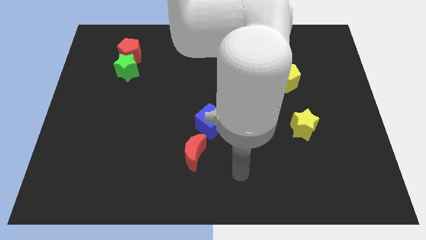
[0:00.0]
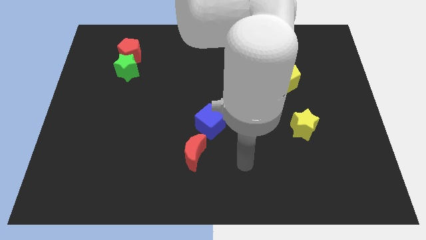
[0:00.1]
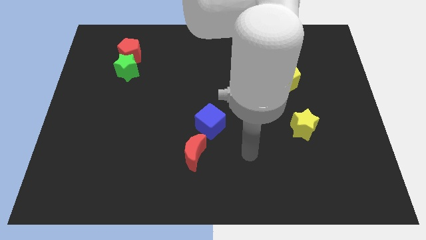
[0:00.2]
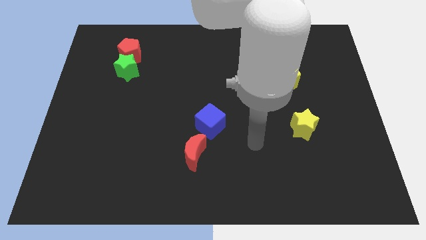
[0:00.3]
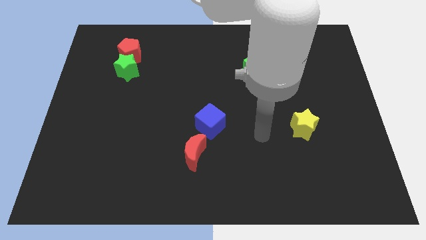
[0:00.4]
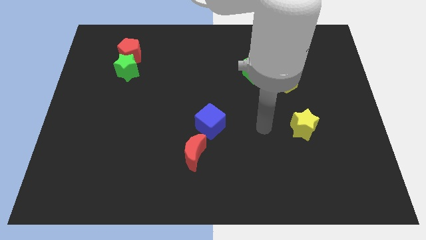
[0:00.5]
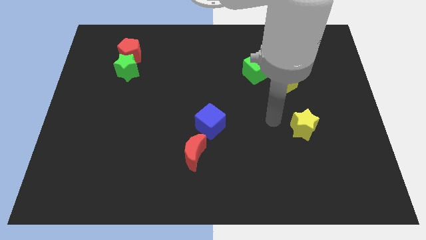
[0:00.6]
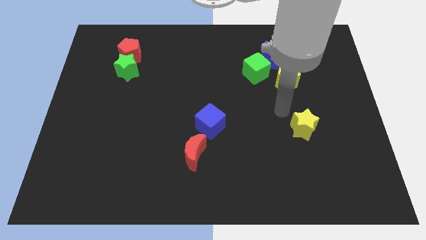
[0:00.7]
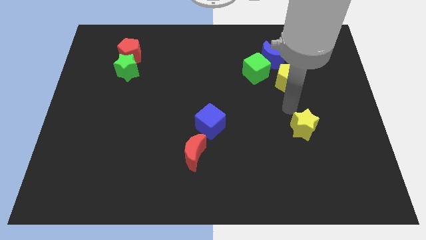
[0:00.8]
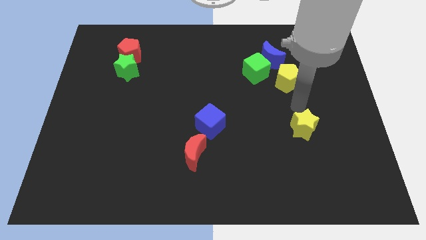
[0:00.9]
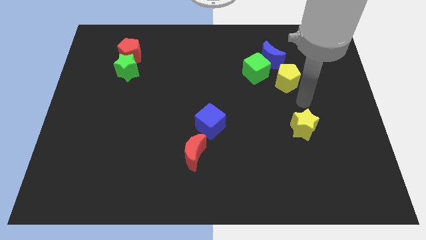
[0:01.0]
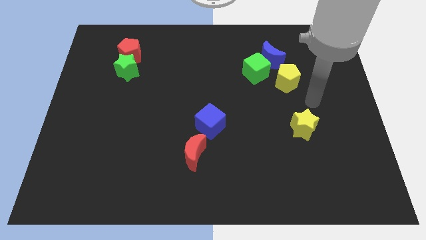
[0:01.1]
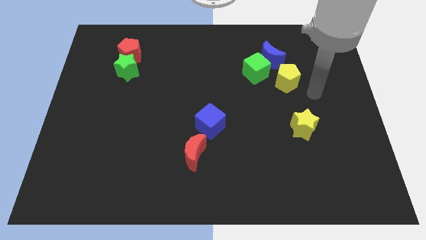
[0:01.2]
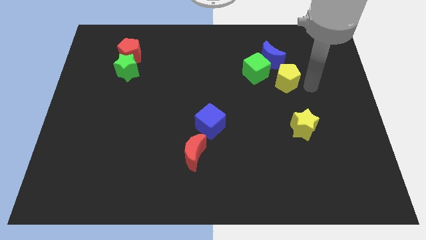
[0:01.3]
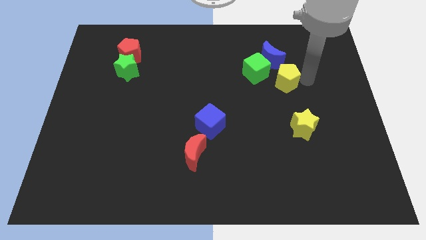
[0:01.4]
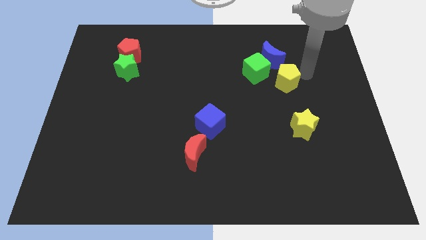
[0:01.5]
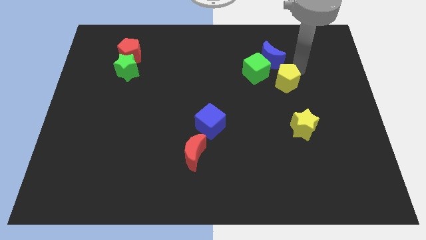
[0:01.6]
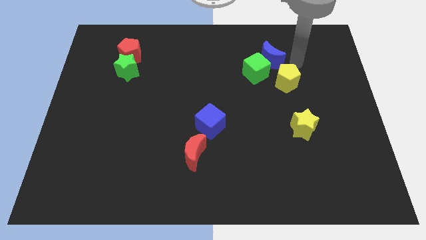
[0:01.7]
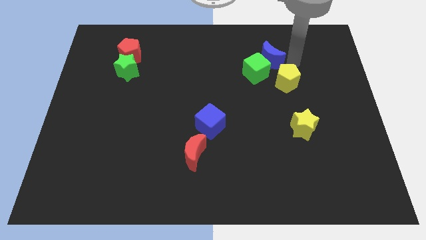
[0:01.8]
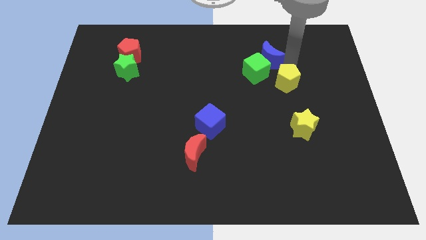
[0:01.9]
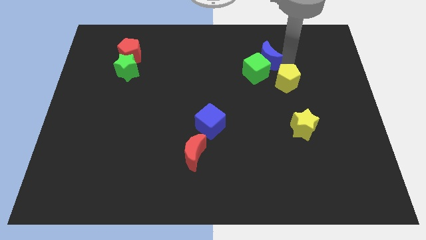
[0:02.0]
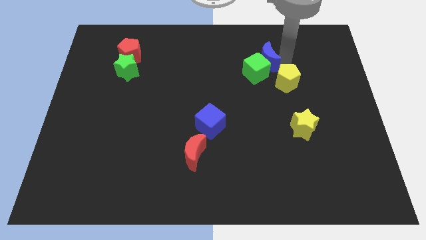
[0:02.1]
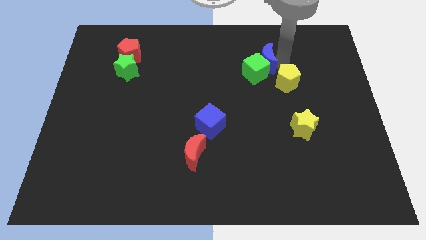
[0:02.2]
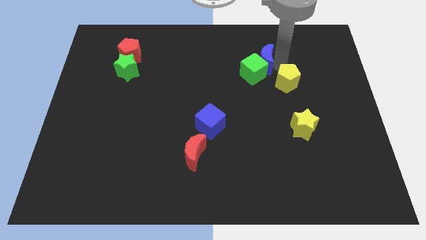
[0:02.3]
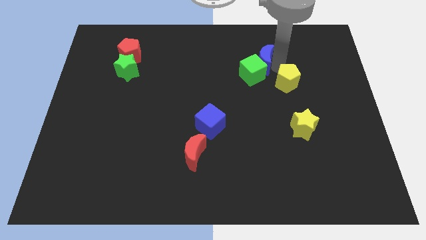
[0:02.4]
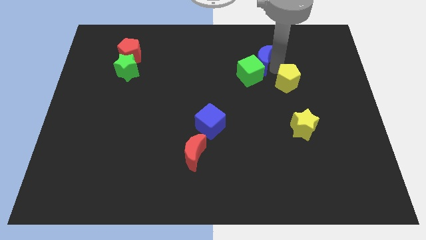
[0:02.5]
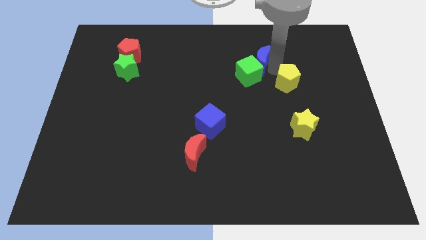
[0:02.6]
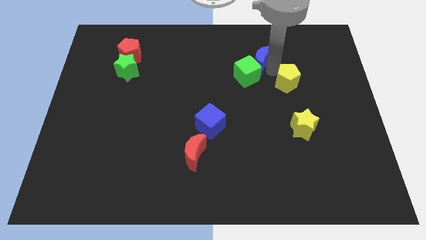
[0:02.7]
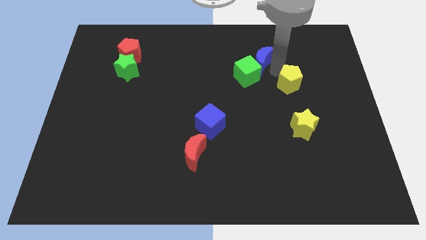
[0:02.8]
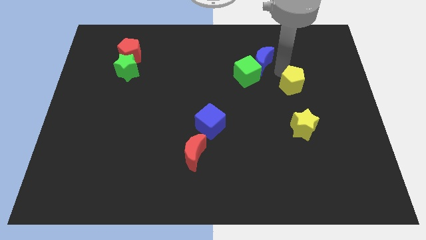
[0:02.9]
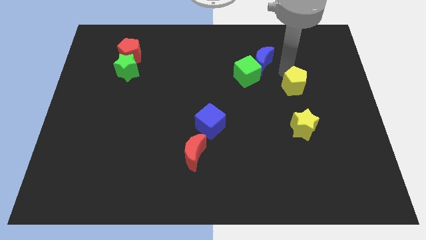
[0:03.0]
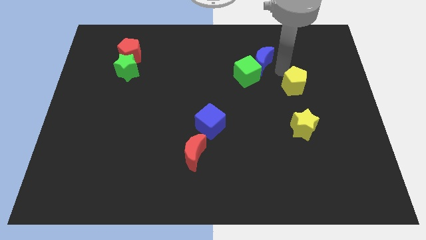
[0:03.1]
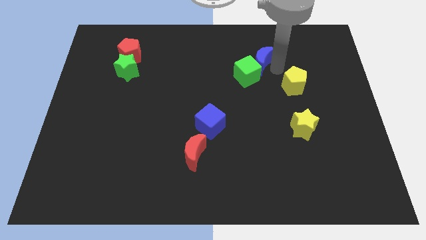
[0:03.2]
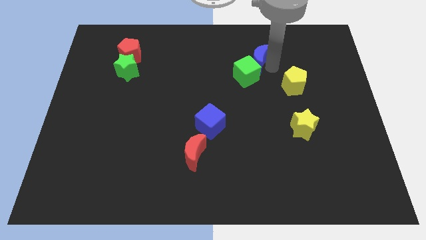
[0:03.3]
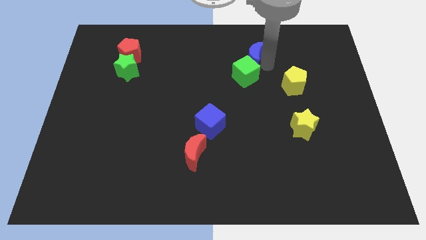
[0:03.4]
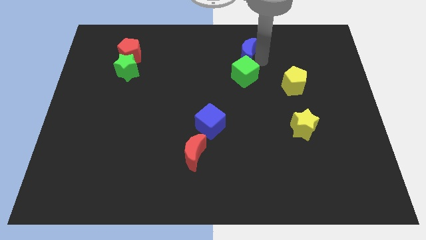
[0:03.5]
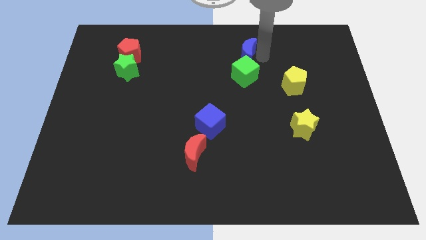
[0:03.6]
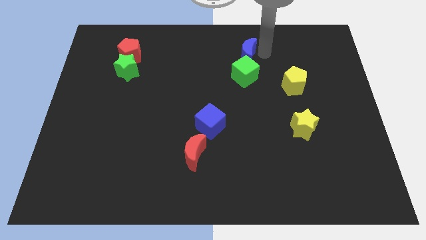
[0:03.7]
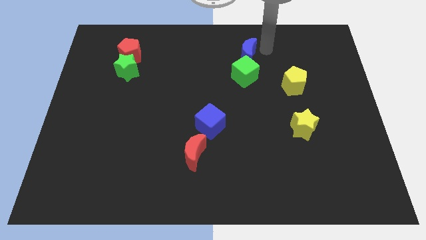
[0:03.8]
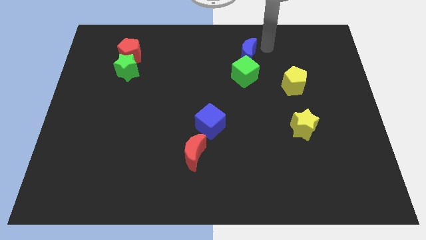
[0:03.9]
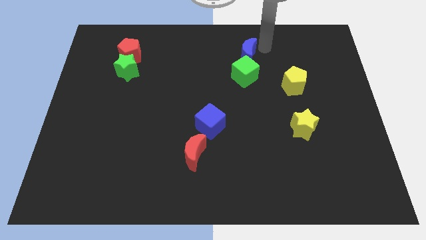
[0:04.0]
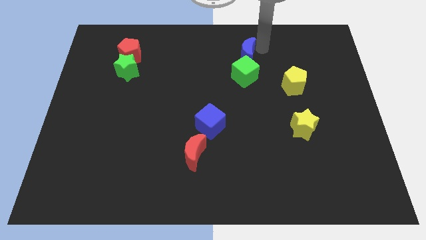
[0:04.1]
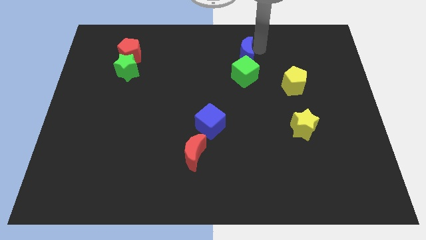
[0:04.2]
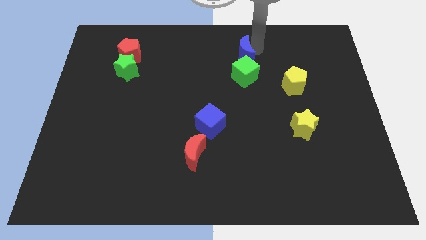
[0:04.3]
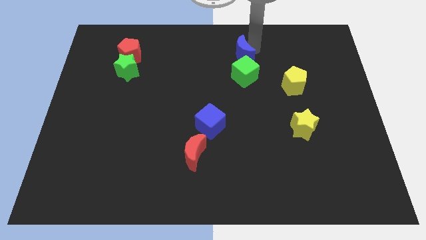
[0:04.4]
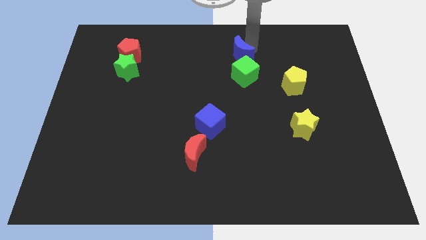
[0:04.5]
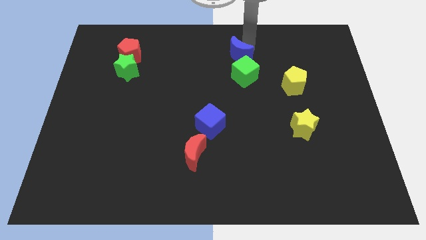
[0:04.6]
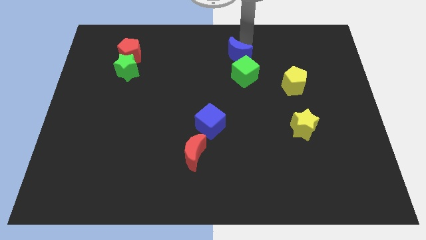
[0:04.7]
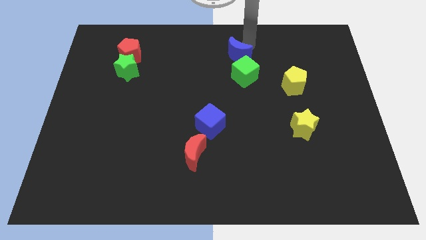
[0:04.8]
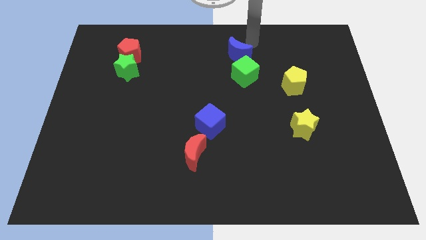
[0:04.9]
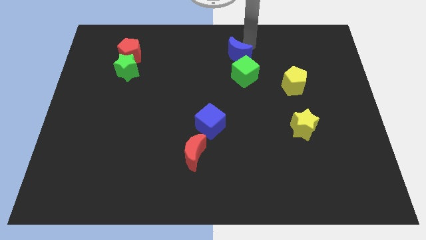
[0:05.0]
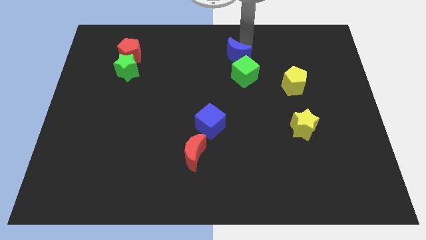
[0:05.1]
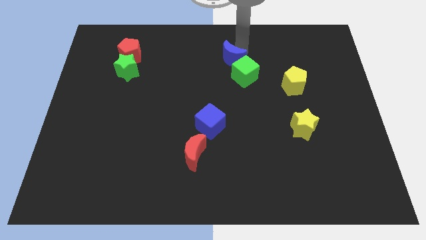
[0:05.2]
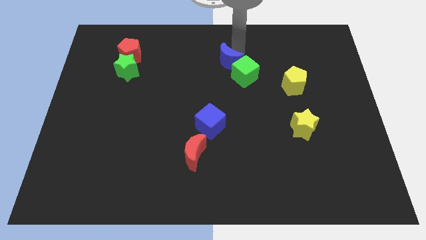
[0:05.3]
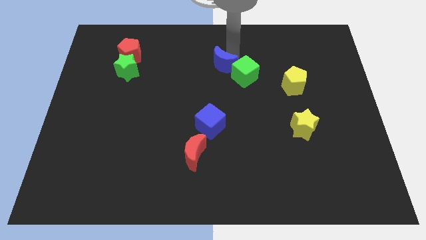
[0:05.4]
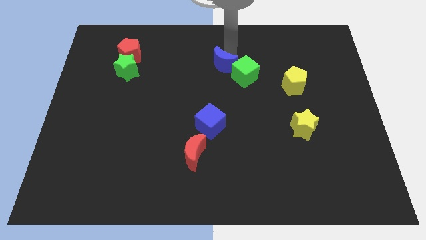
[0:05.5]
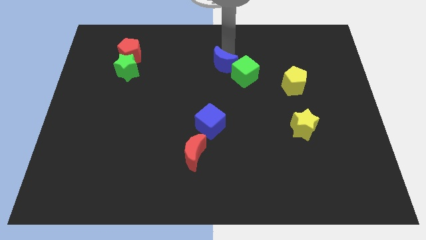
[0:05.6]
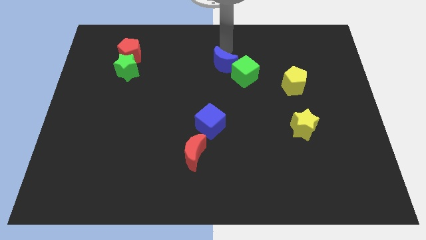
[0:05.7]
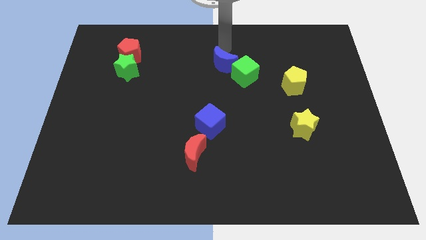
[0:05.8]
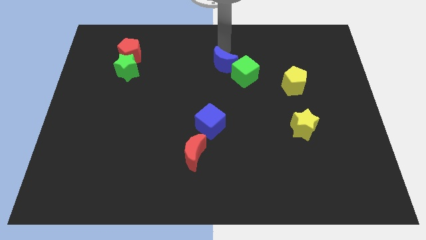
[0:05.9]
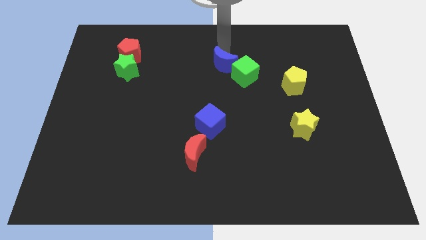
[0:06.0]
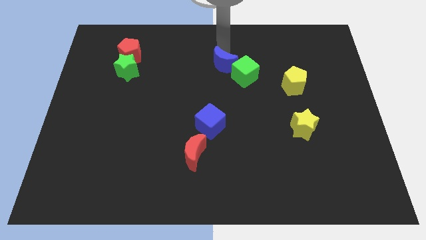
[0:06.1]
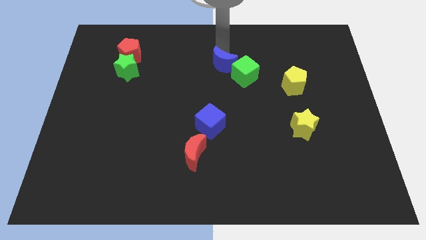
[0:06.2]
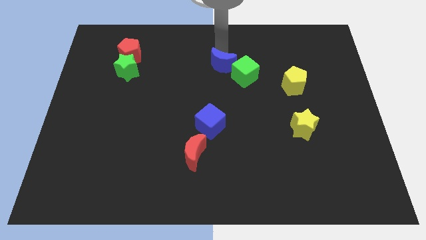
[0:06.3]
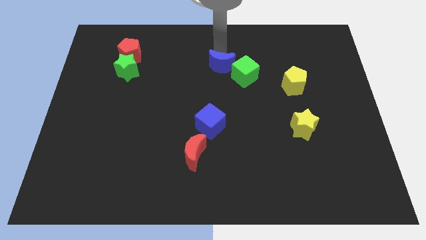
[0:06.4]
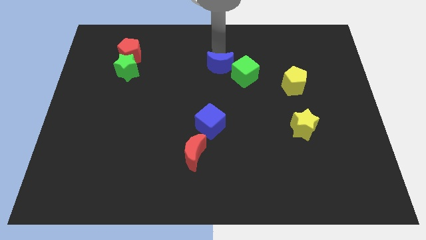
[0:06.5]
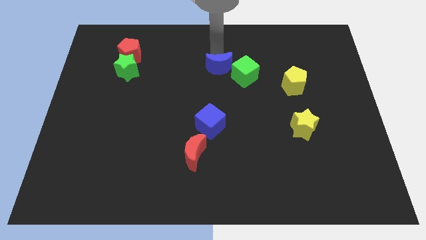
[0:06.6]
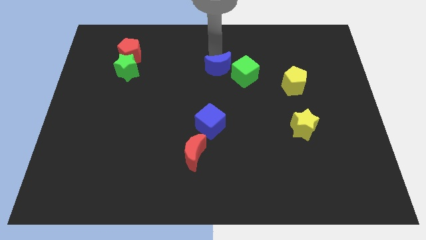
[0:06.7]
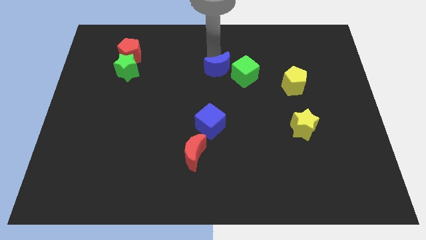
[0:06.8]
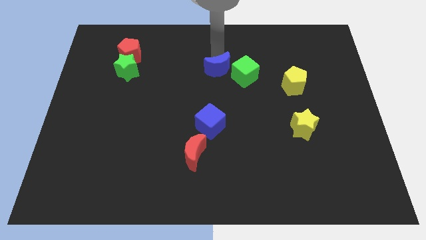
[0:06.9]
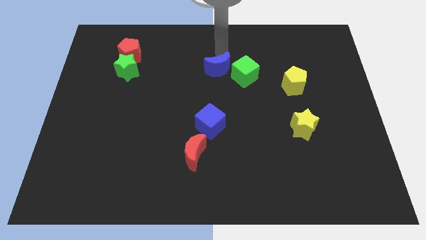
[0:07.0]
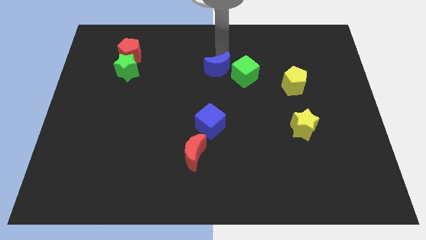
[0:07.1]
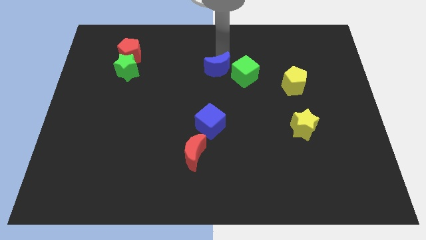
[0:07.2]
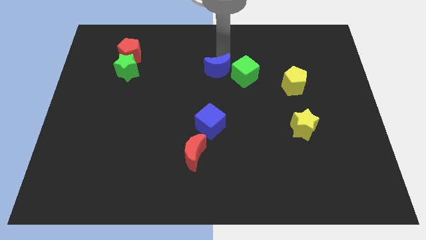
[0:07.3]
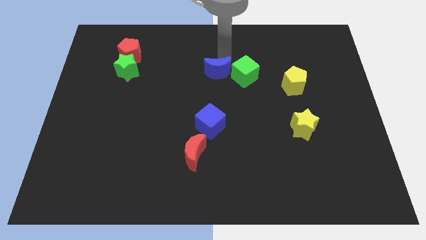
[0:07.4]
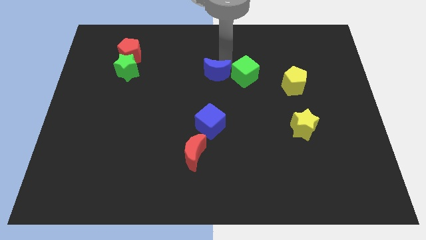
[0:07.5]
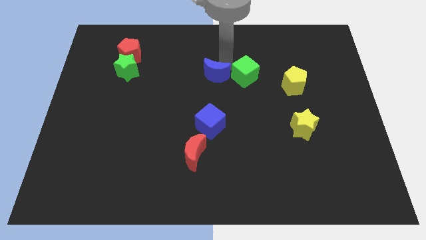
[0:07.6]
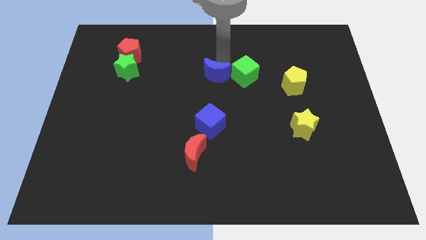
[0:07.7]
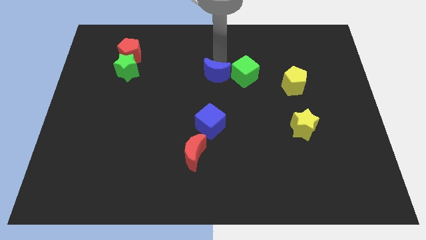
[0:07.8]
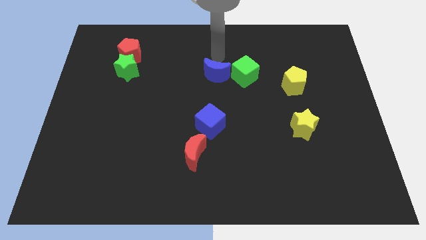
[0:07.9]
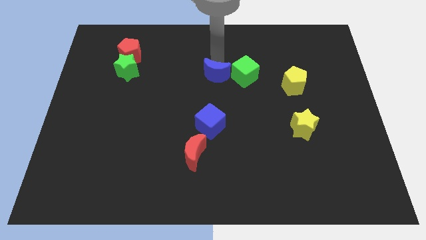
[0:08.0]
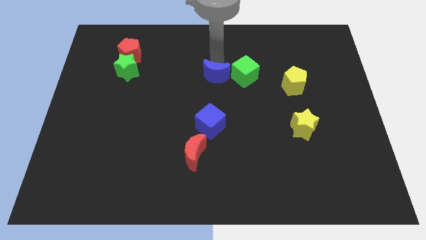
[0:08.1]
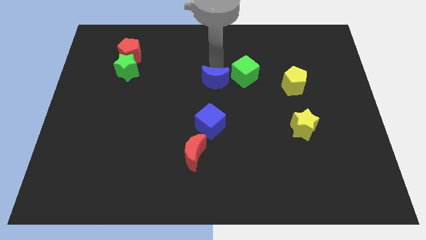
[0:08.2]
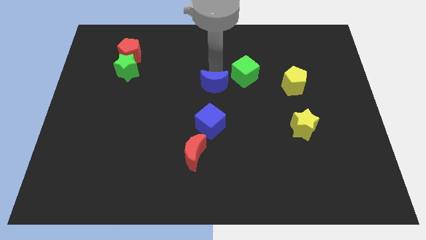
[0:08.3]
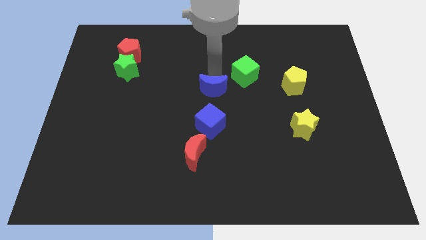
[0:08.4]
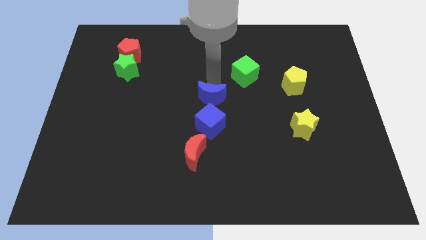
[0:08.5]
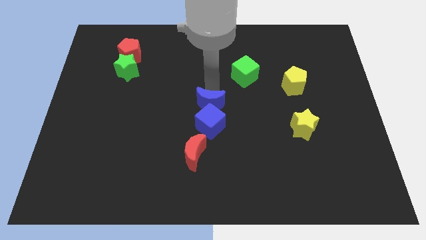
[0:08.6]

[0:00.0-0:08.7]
put the blue moon to the blue cube
